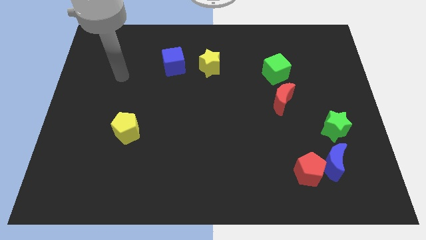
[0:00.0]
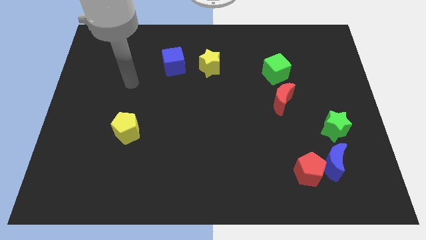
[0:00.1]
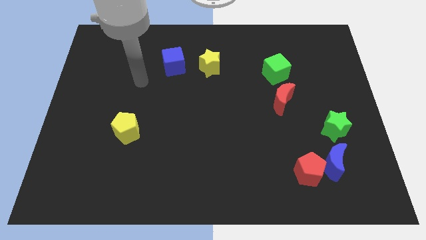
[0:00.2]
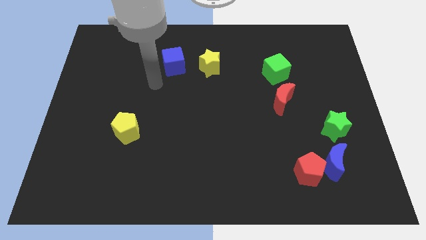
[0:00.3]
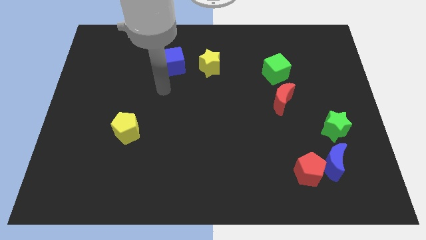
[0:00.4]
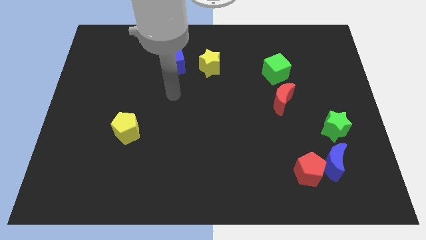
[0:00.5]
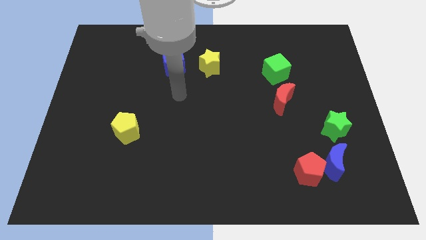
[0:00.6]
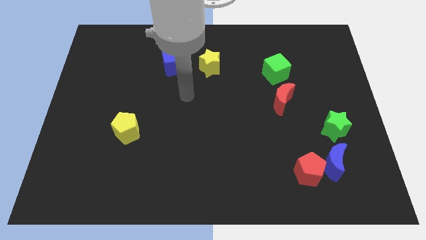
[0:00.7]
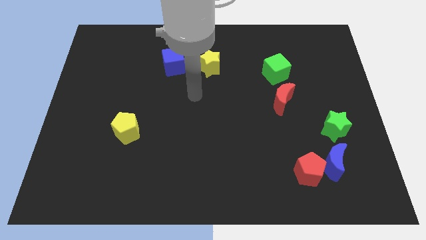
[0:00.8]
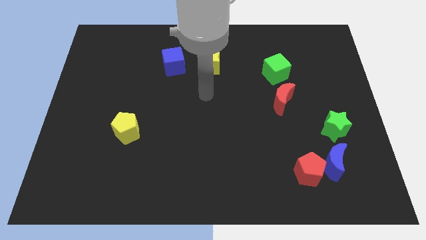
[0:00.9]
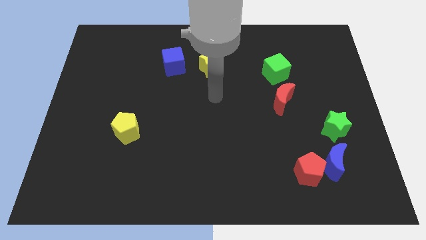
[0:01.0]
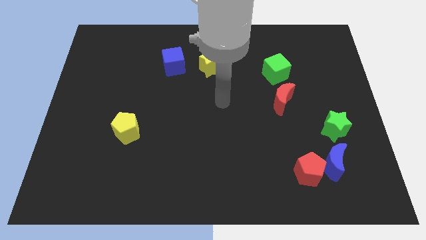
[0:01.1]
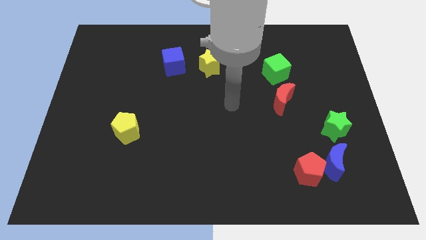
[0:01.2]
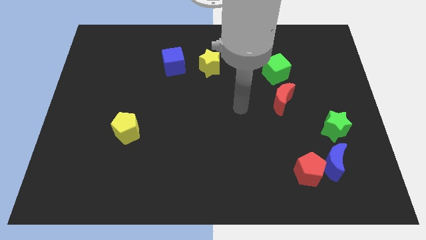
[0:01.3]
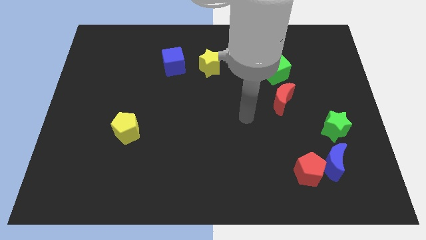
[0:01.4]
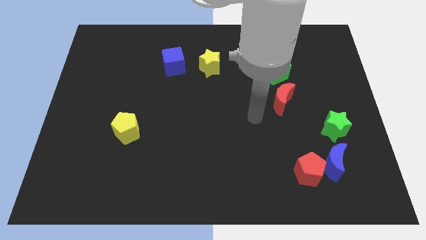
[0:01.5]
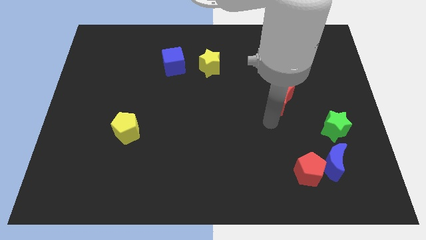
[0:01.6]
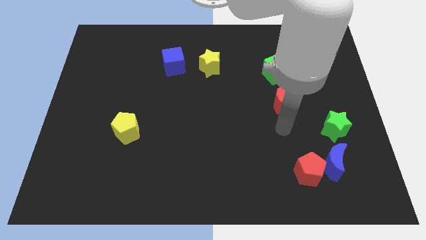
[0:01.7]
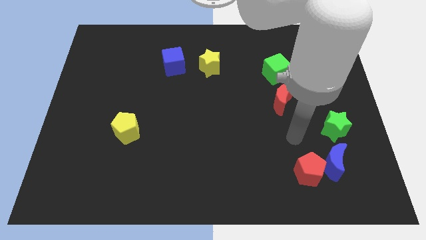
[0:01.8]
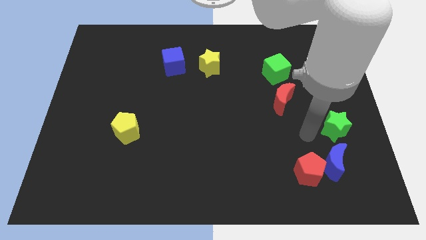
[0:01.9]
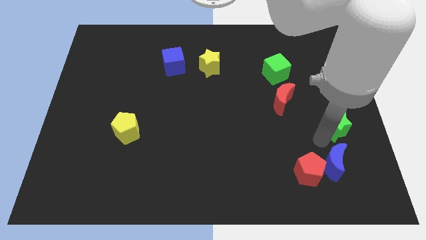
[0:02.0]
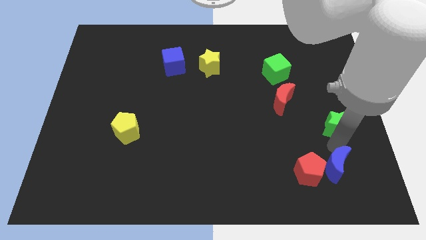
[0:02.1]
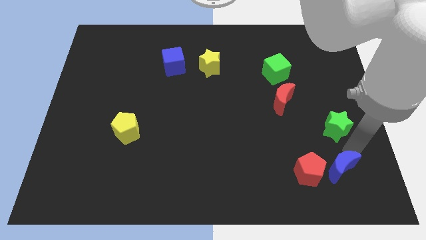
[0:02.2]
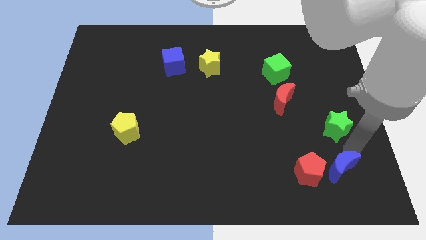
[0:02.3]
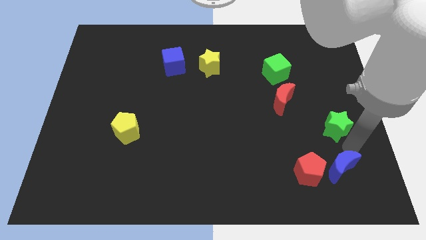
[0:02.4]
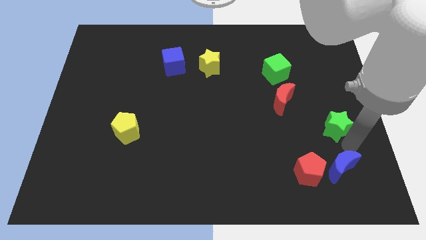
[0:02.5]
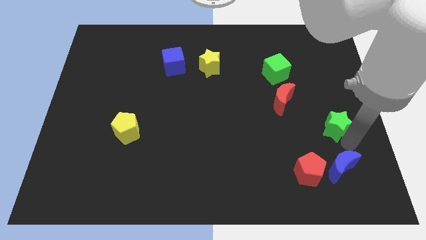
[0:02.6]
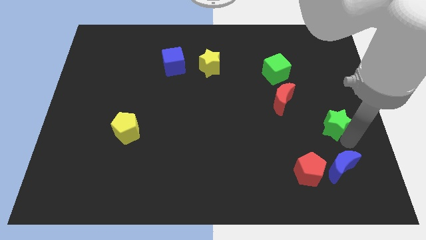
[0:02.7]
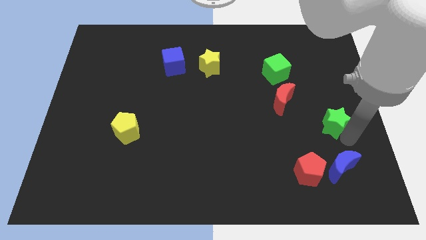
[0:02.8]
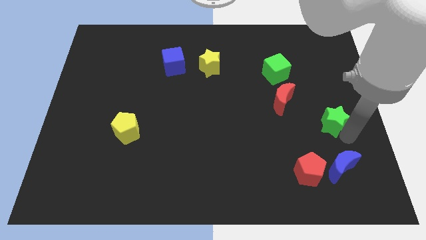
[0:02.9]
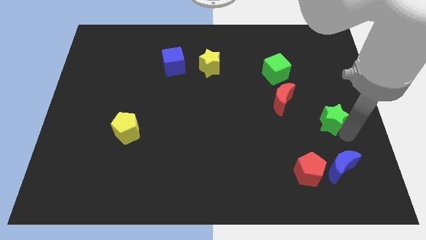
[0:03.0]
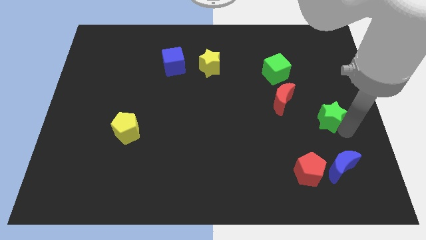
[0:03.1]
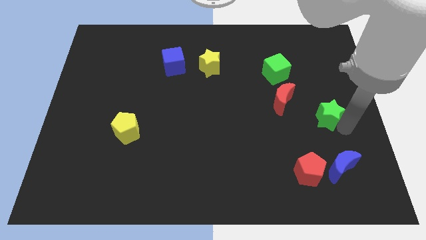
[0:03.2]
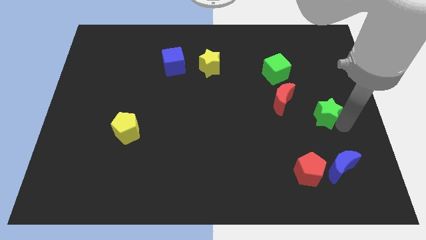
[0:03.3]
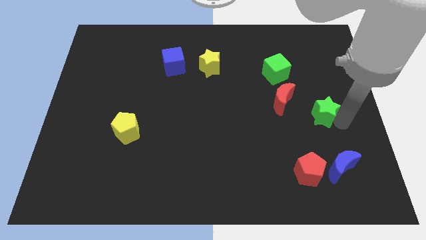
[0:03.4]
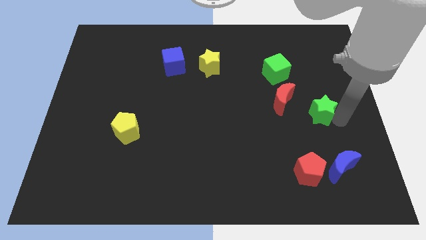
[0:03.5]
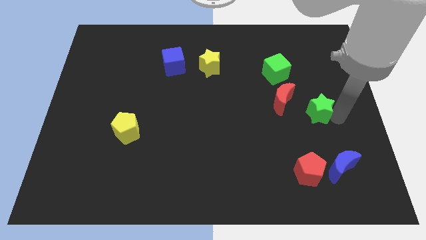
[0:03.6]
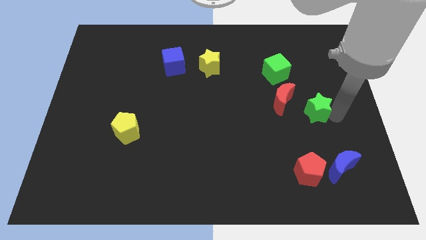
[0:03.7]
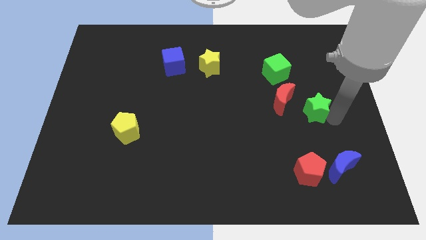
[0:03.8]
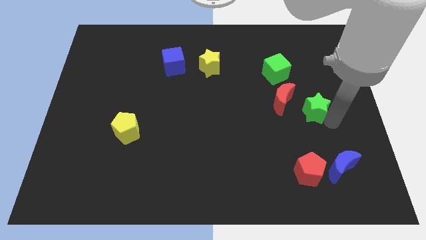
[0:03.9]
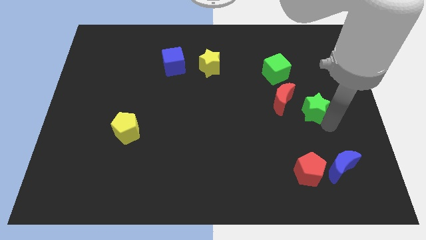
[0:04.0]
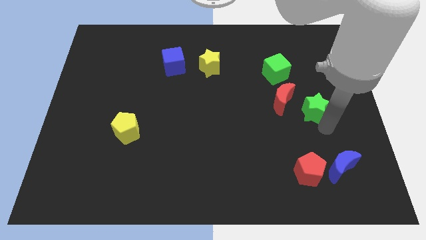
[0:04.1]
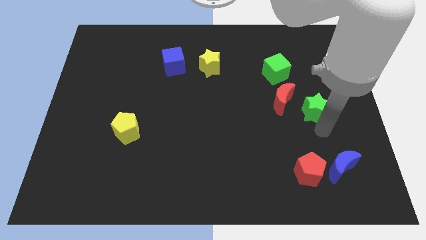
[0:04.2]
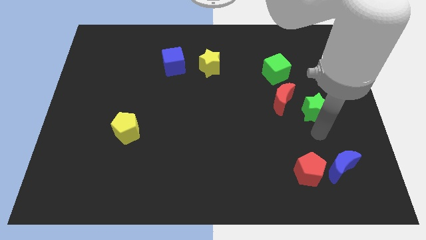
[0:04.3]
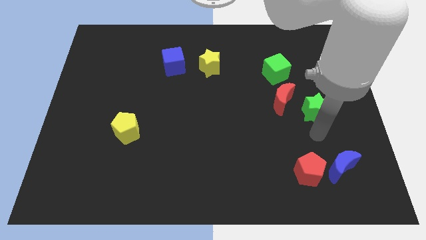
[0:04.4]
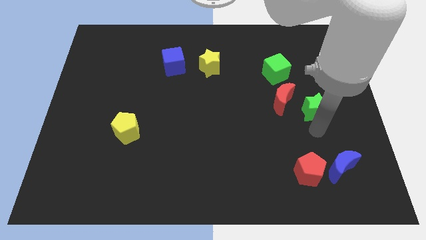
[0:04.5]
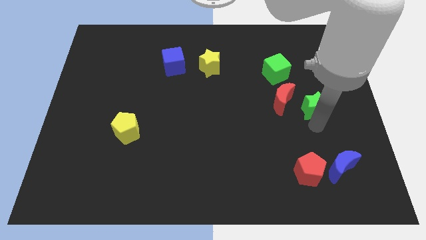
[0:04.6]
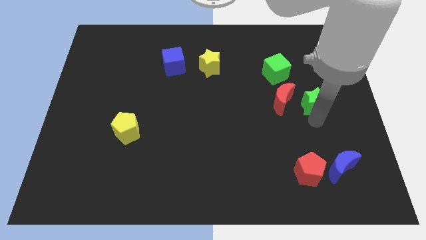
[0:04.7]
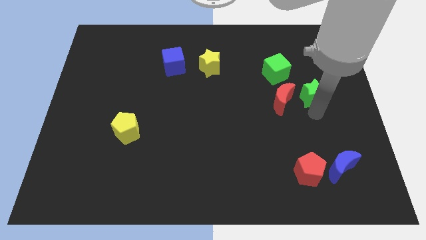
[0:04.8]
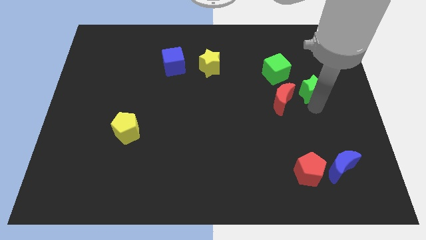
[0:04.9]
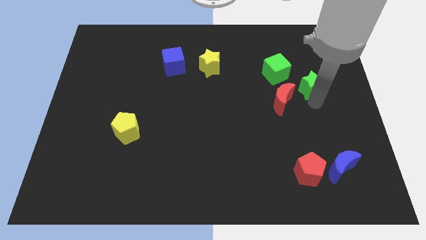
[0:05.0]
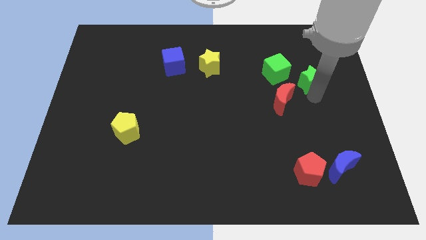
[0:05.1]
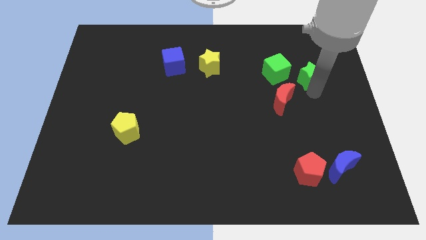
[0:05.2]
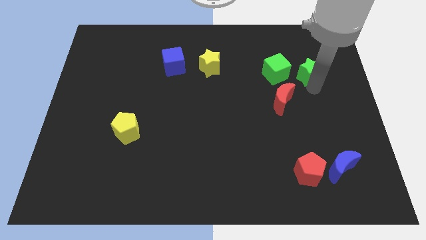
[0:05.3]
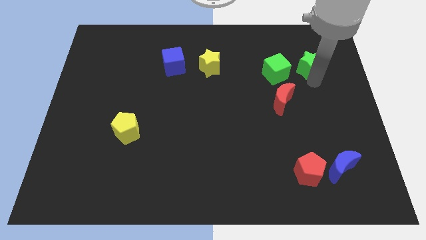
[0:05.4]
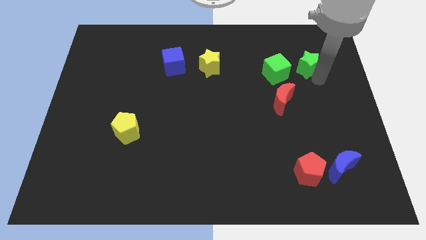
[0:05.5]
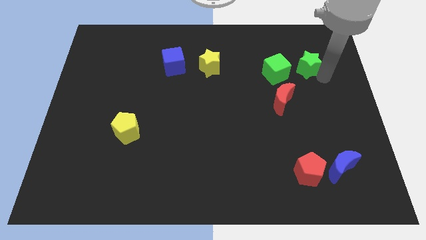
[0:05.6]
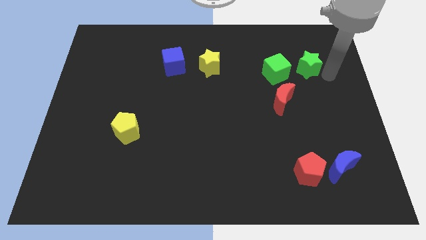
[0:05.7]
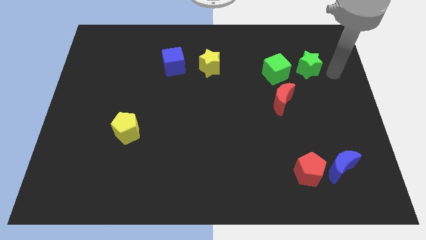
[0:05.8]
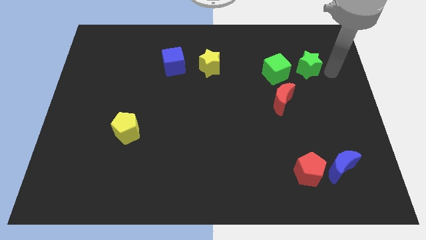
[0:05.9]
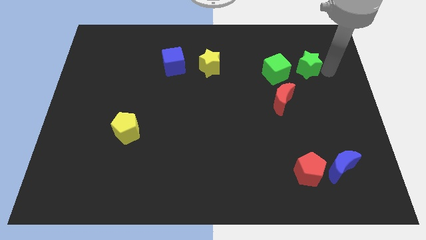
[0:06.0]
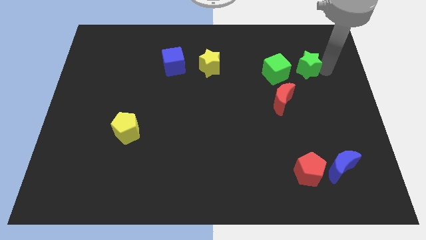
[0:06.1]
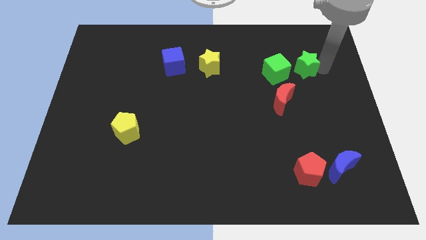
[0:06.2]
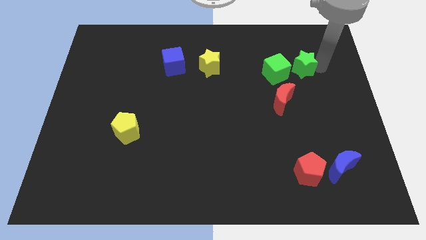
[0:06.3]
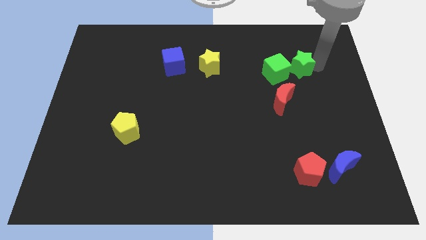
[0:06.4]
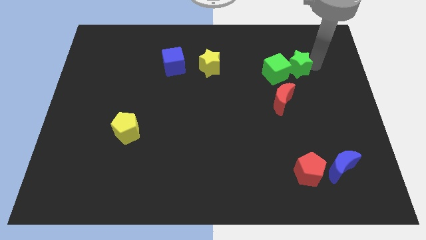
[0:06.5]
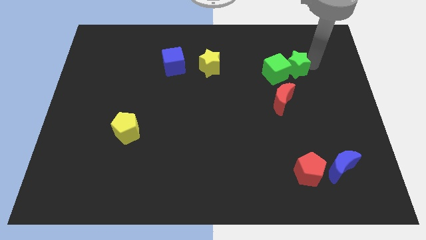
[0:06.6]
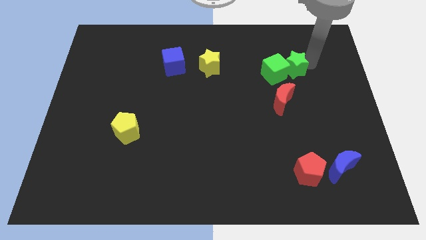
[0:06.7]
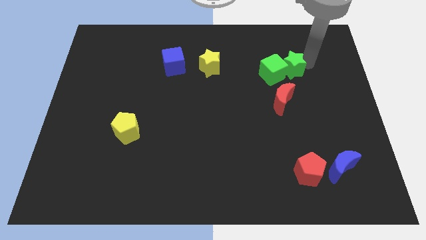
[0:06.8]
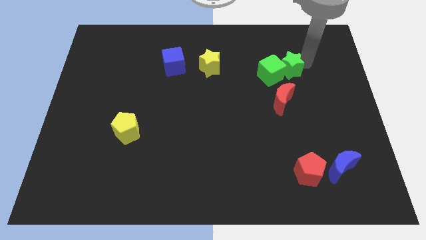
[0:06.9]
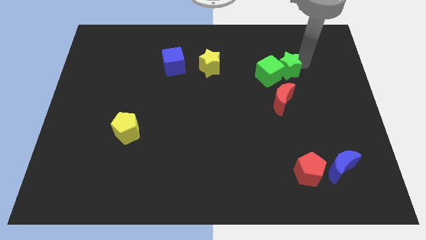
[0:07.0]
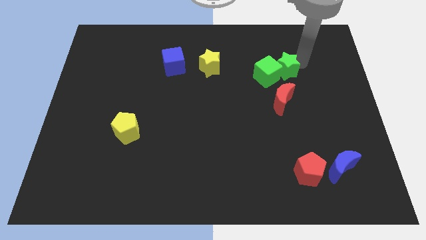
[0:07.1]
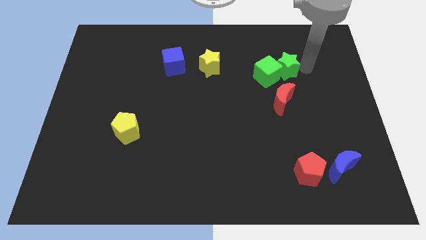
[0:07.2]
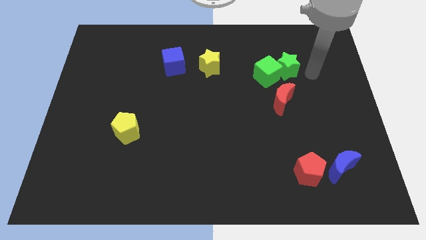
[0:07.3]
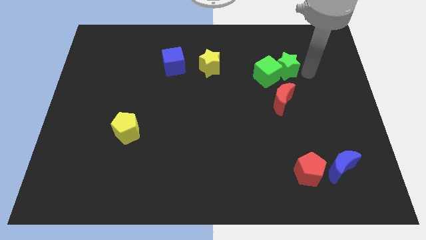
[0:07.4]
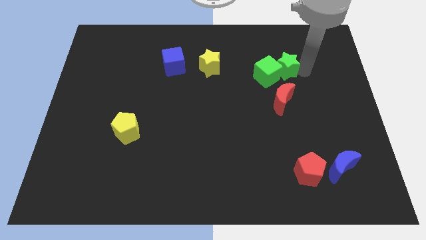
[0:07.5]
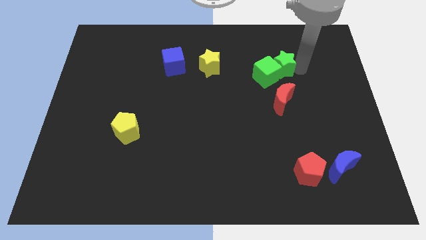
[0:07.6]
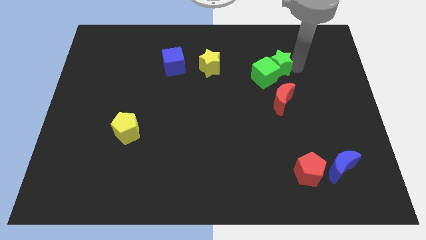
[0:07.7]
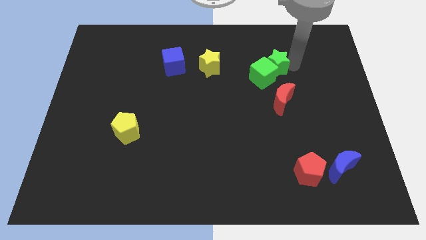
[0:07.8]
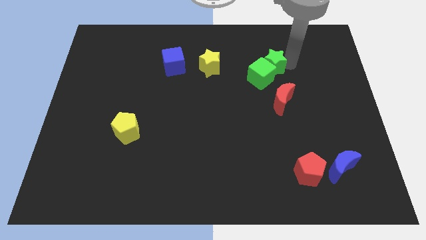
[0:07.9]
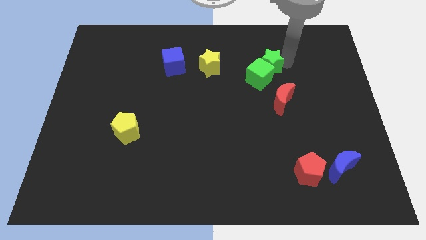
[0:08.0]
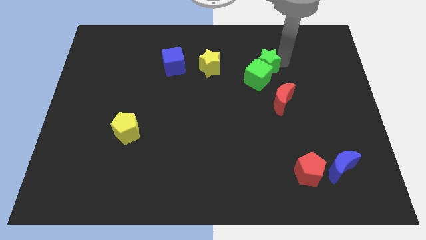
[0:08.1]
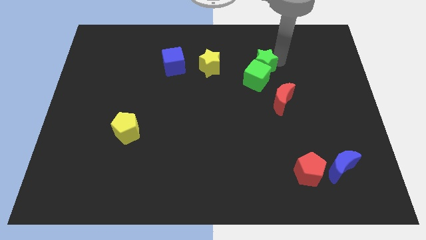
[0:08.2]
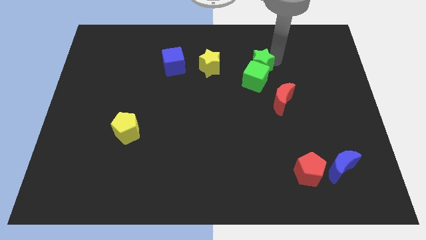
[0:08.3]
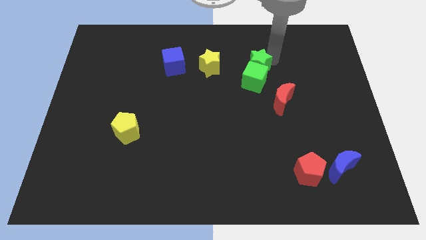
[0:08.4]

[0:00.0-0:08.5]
move the green star to the top left side of the green cube
